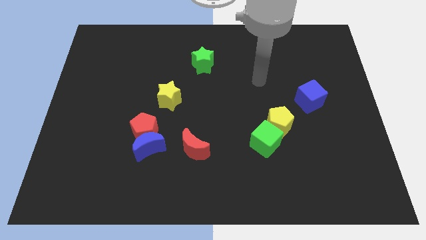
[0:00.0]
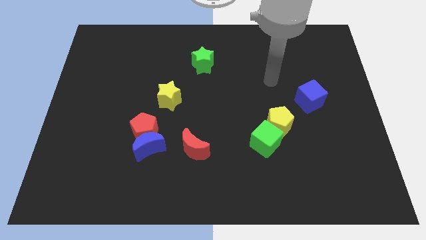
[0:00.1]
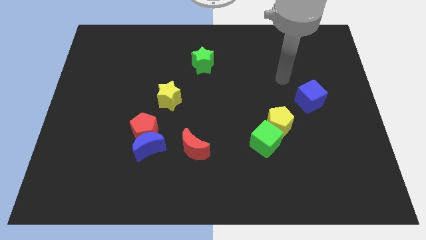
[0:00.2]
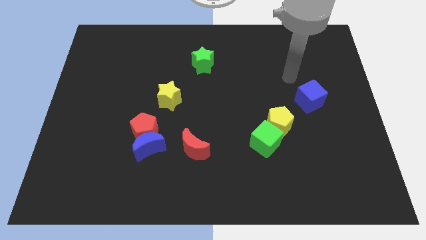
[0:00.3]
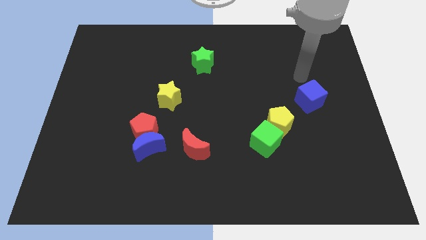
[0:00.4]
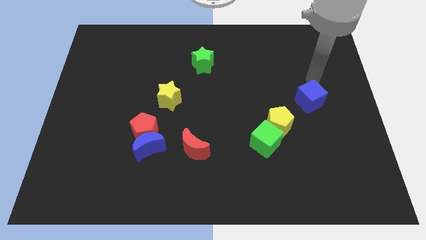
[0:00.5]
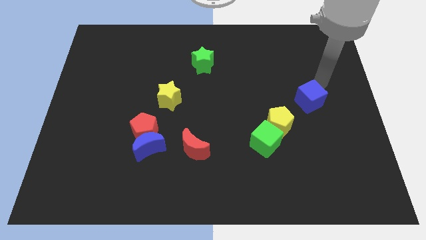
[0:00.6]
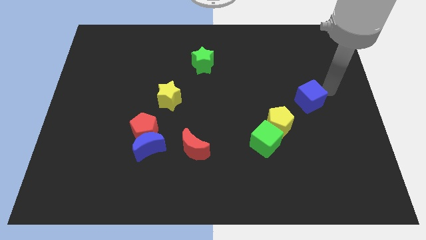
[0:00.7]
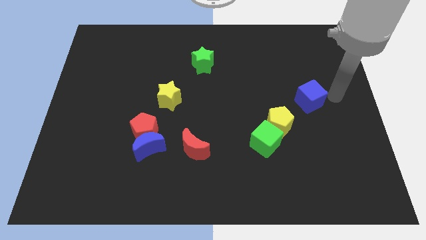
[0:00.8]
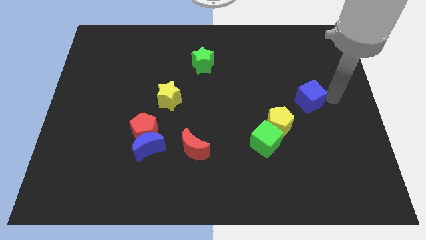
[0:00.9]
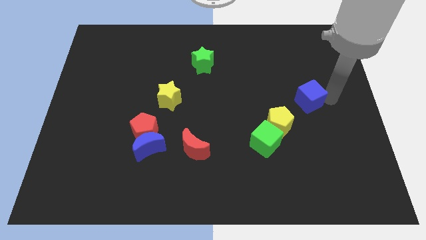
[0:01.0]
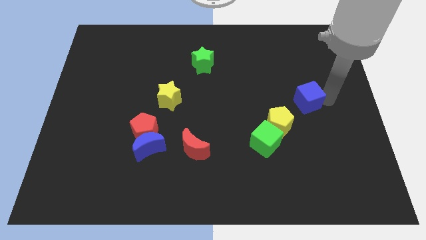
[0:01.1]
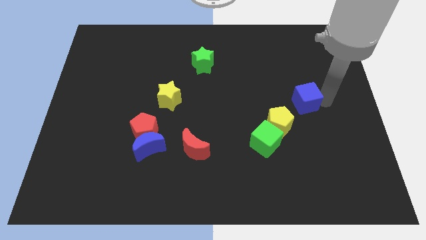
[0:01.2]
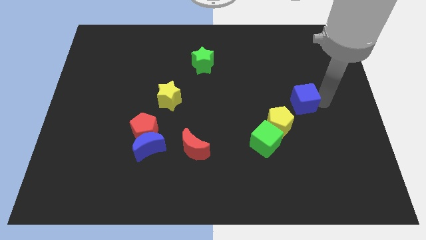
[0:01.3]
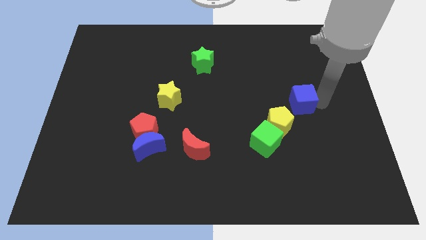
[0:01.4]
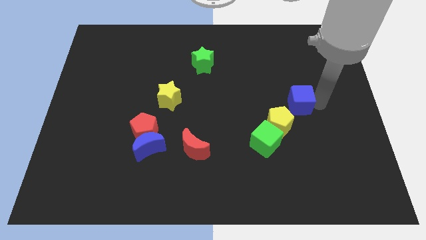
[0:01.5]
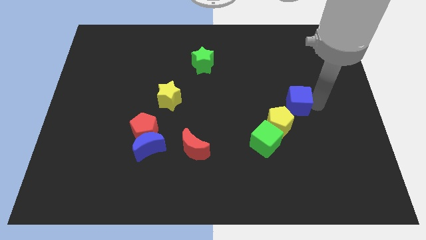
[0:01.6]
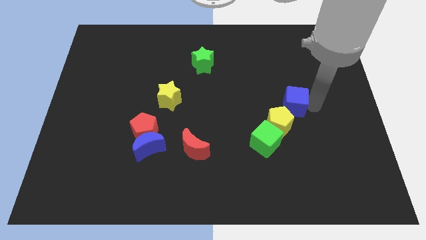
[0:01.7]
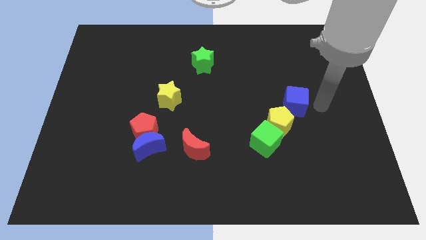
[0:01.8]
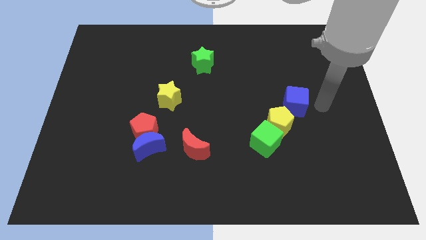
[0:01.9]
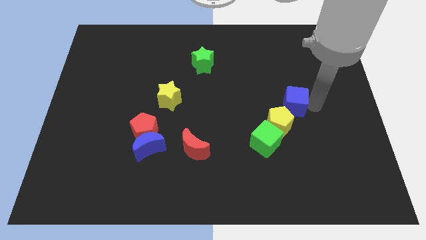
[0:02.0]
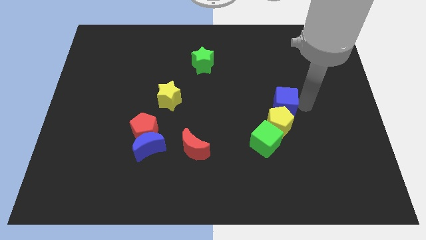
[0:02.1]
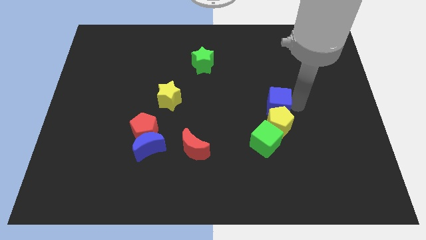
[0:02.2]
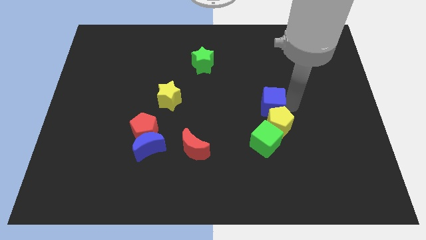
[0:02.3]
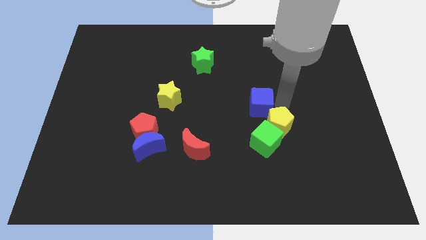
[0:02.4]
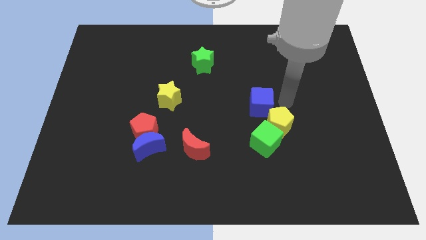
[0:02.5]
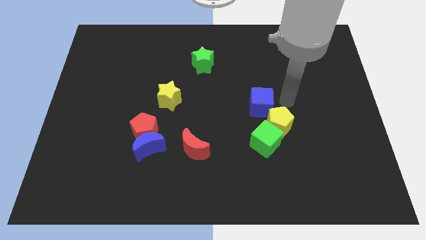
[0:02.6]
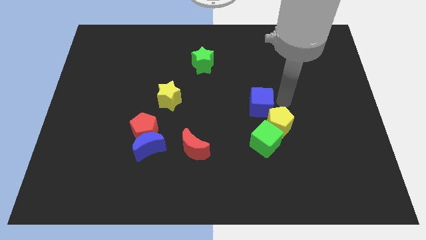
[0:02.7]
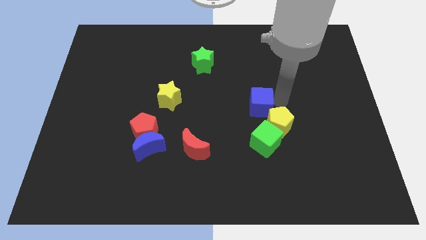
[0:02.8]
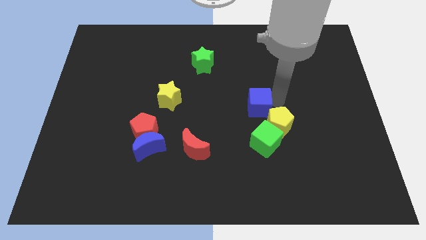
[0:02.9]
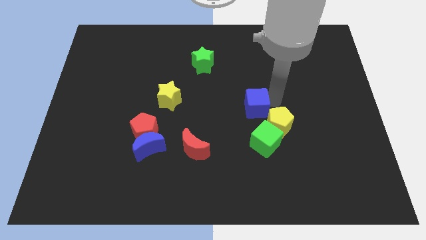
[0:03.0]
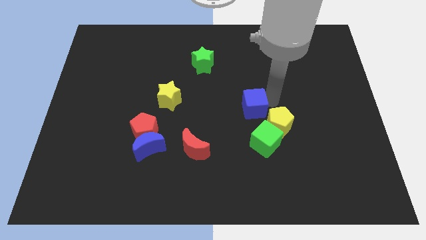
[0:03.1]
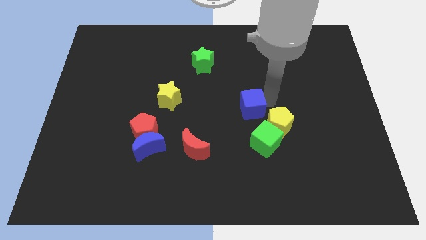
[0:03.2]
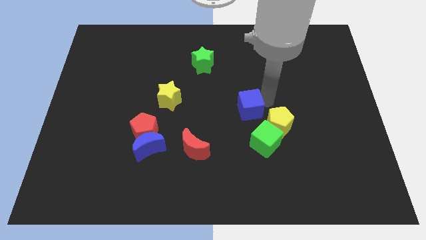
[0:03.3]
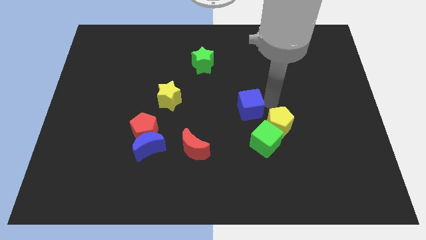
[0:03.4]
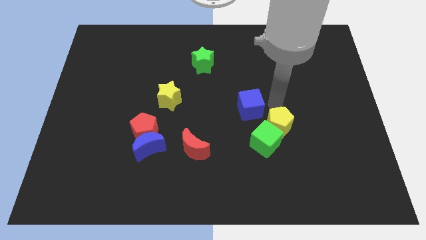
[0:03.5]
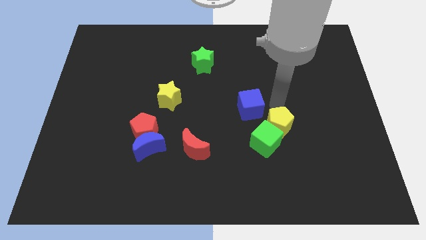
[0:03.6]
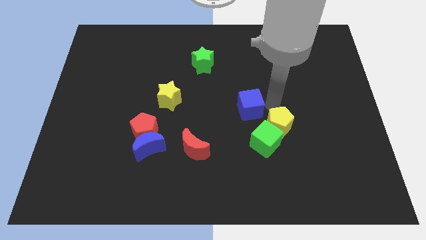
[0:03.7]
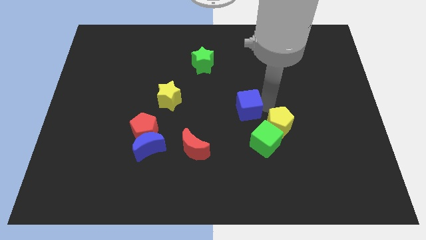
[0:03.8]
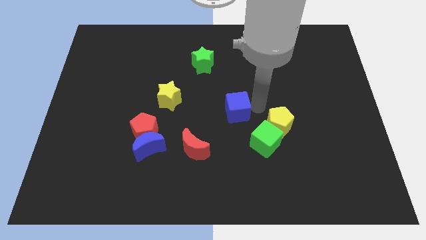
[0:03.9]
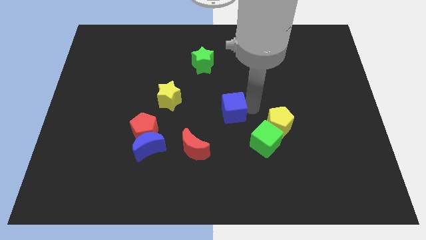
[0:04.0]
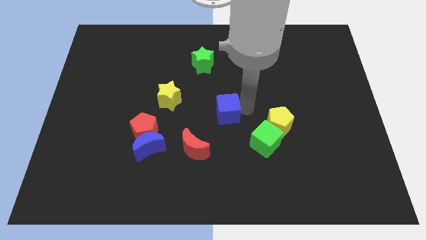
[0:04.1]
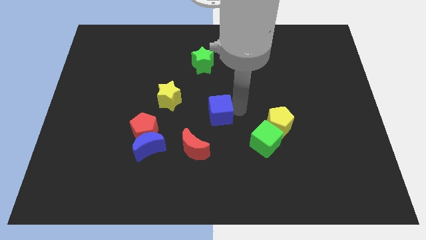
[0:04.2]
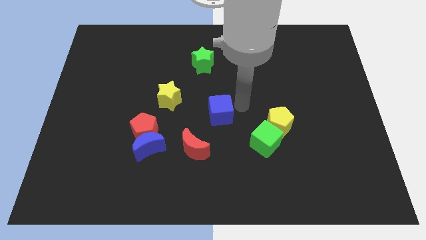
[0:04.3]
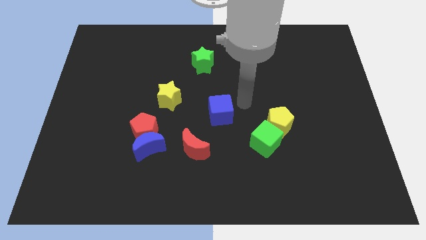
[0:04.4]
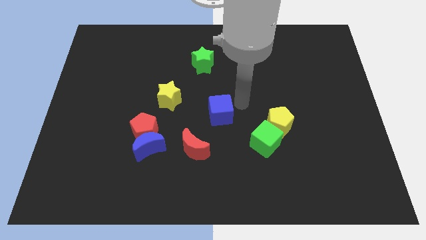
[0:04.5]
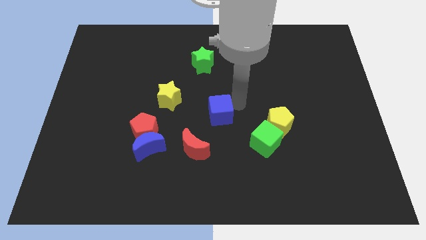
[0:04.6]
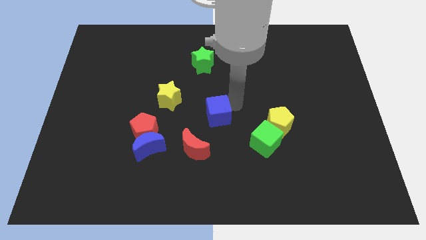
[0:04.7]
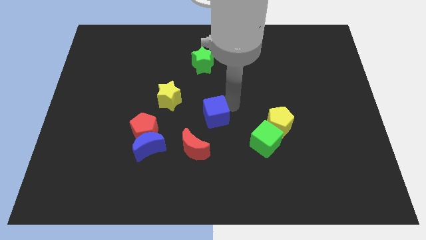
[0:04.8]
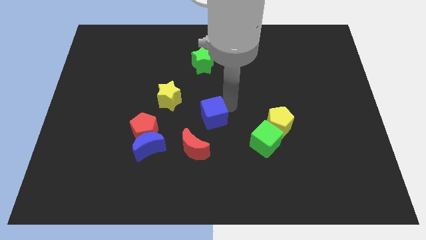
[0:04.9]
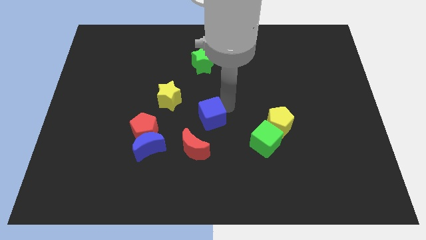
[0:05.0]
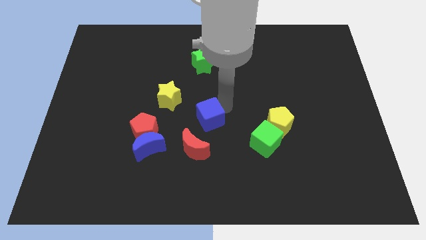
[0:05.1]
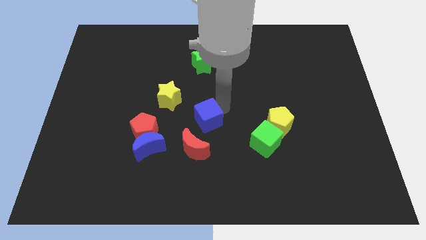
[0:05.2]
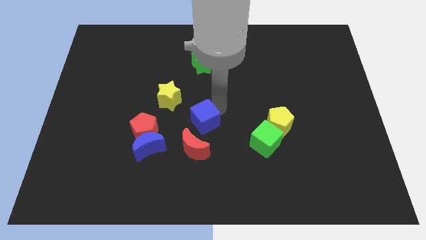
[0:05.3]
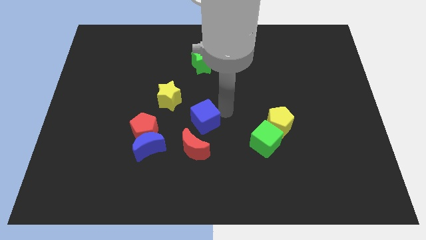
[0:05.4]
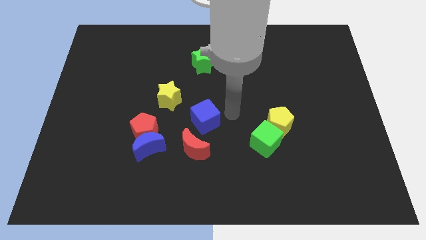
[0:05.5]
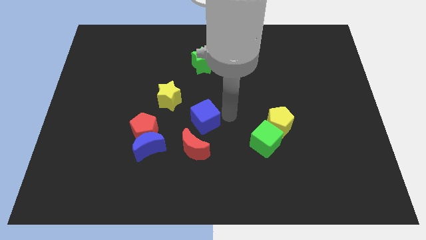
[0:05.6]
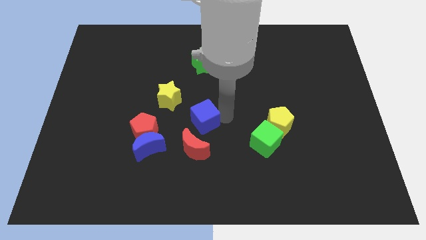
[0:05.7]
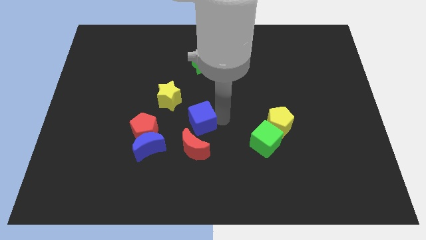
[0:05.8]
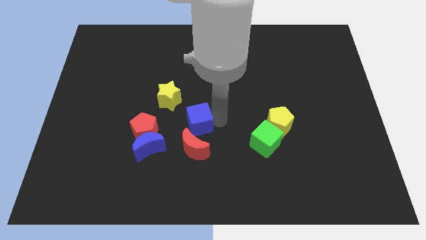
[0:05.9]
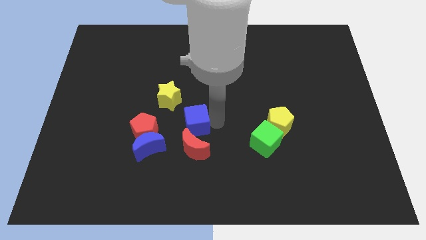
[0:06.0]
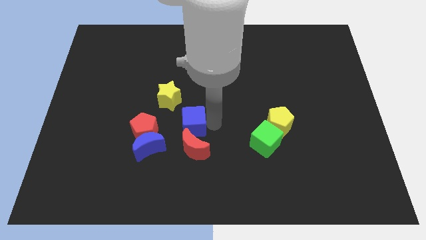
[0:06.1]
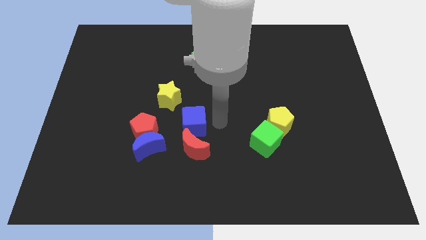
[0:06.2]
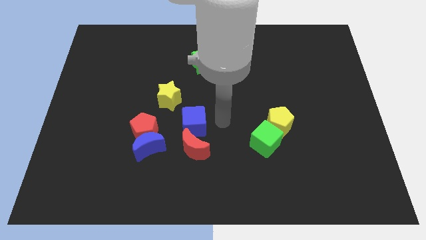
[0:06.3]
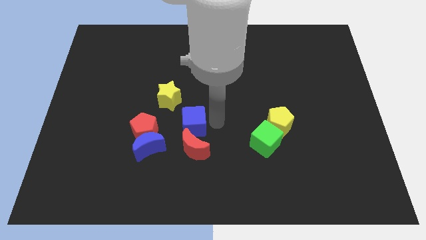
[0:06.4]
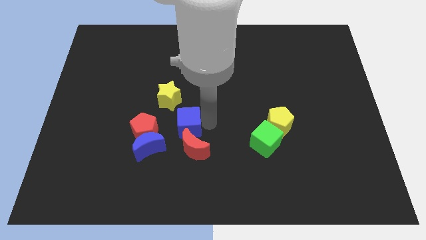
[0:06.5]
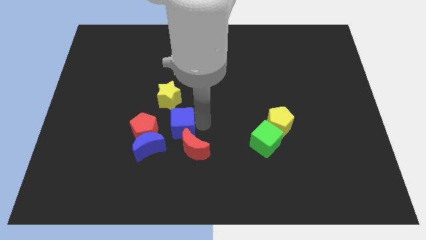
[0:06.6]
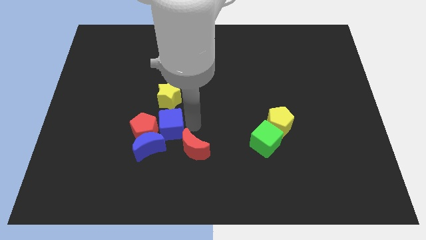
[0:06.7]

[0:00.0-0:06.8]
move the blue cube to the red pentagon
